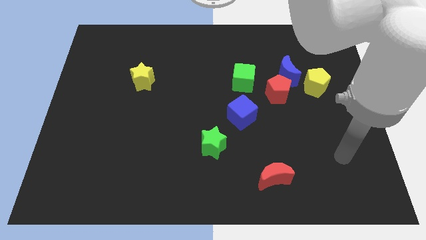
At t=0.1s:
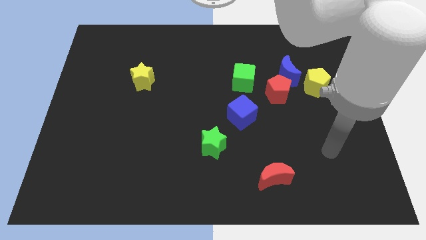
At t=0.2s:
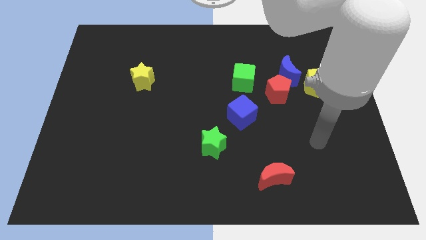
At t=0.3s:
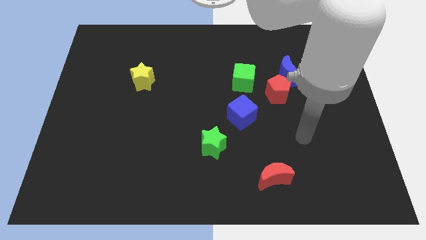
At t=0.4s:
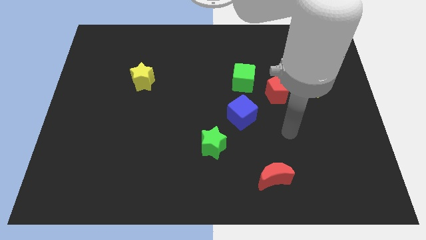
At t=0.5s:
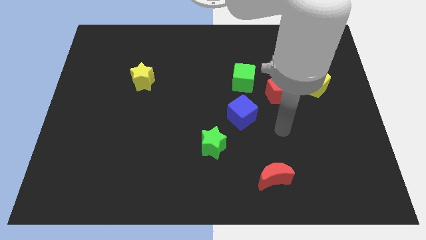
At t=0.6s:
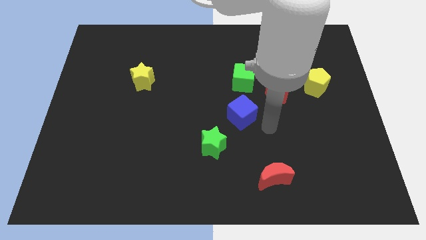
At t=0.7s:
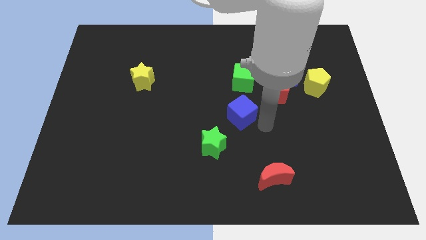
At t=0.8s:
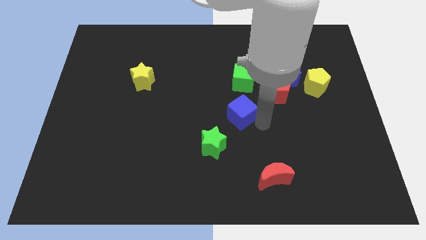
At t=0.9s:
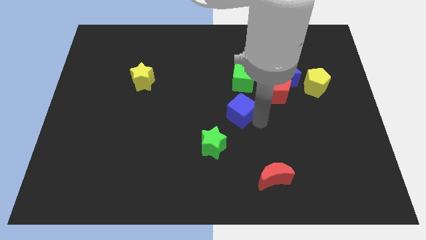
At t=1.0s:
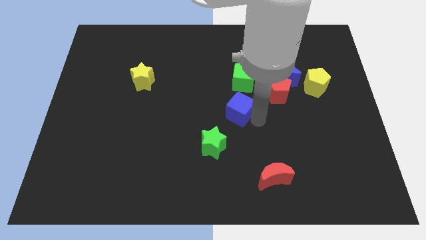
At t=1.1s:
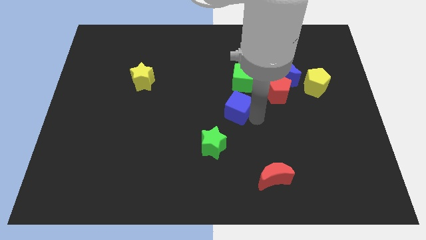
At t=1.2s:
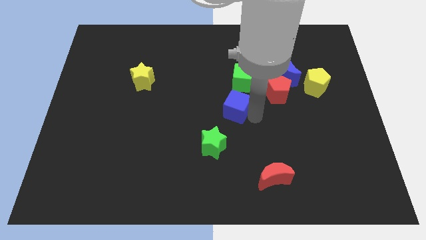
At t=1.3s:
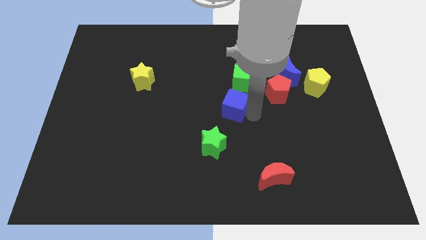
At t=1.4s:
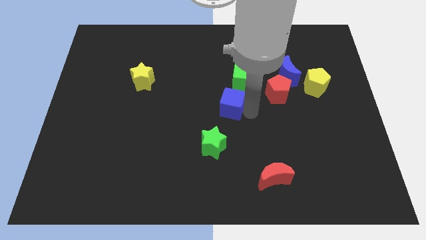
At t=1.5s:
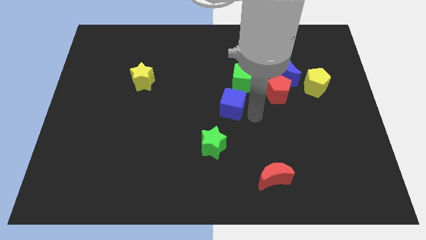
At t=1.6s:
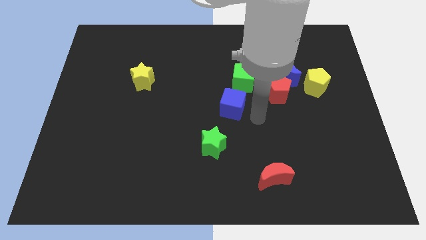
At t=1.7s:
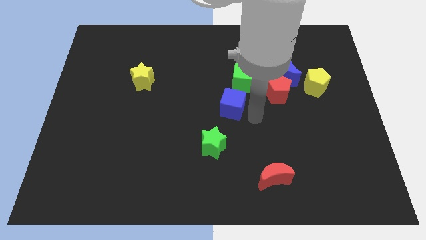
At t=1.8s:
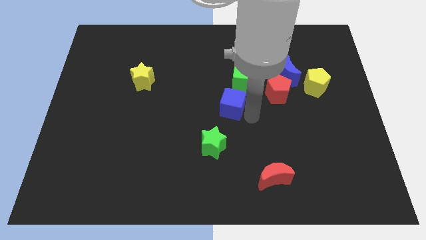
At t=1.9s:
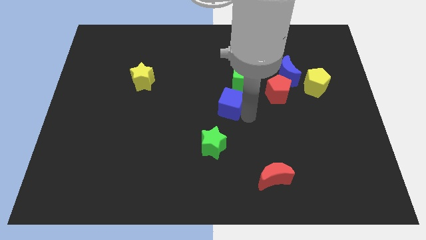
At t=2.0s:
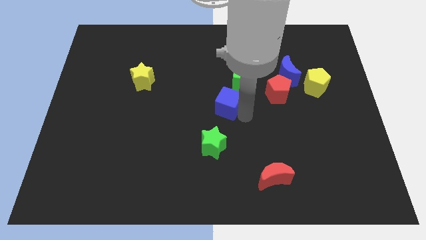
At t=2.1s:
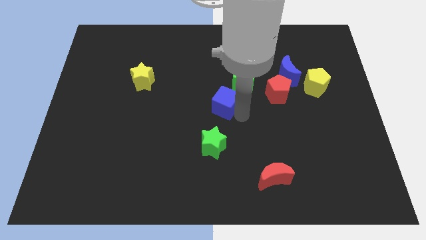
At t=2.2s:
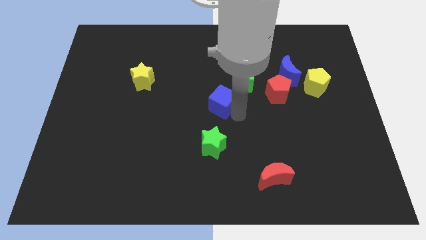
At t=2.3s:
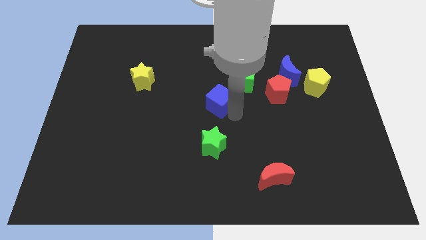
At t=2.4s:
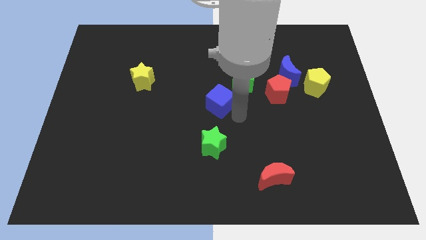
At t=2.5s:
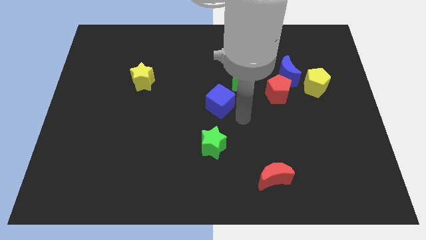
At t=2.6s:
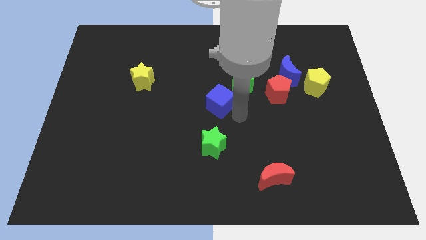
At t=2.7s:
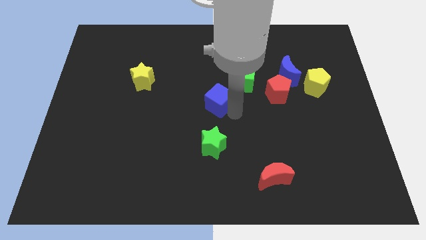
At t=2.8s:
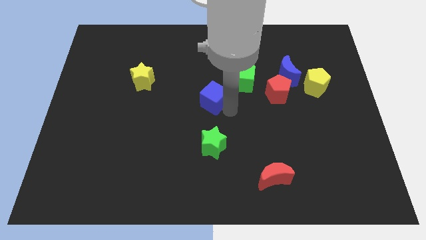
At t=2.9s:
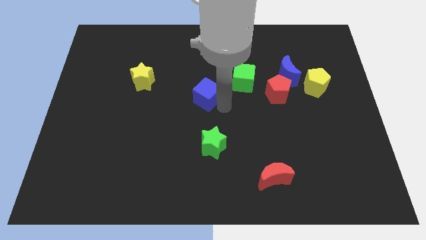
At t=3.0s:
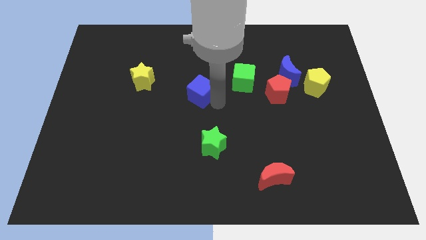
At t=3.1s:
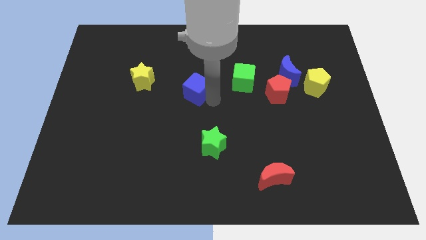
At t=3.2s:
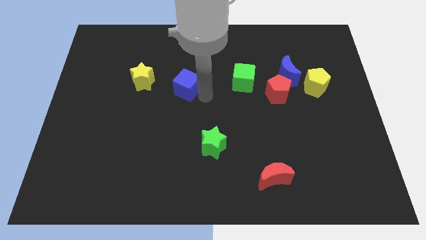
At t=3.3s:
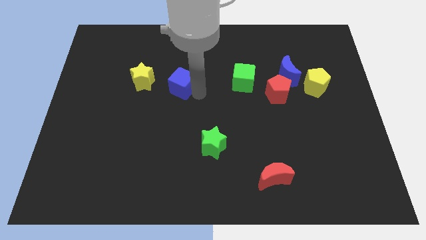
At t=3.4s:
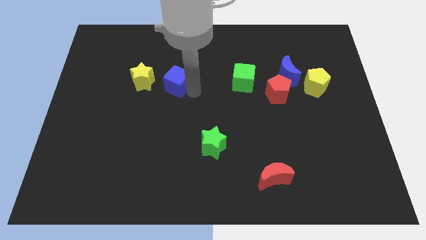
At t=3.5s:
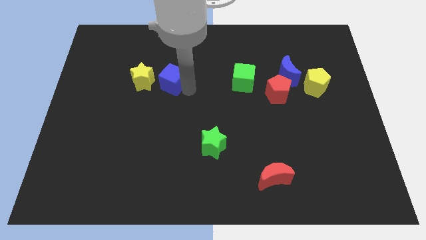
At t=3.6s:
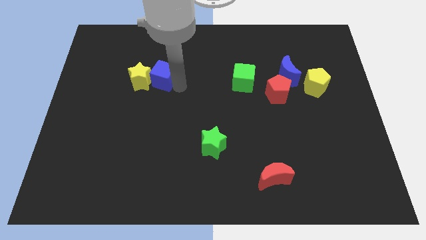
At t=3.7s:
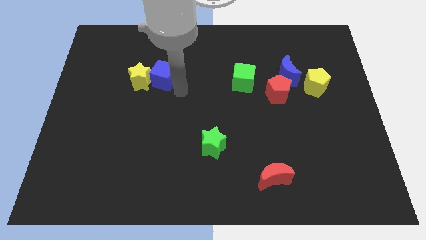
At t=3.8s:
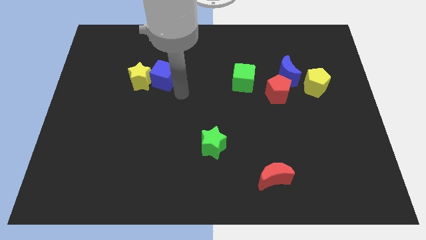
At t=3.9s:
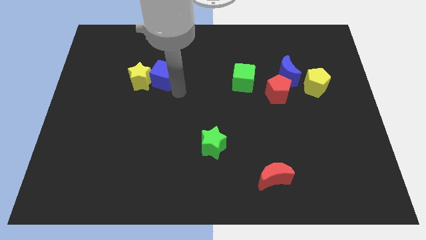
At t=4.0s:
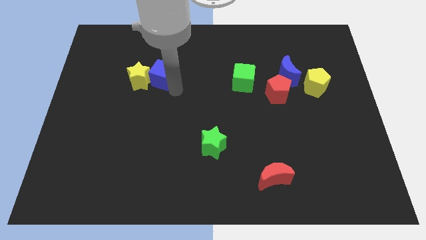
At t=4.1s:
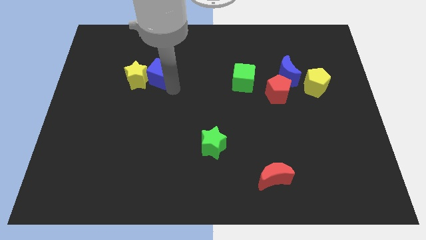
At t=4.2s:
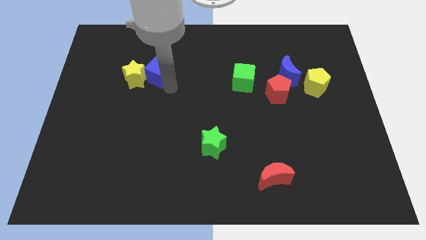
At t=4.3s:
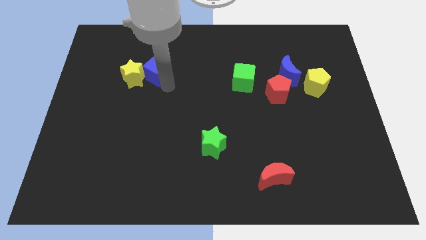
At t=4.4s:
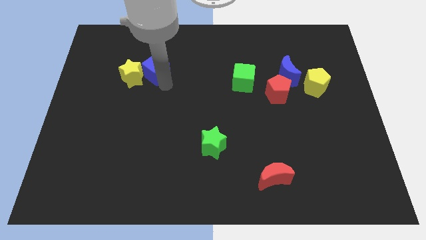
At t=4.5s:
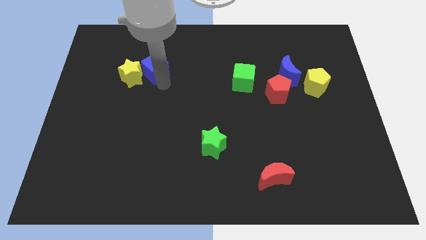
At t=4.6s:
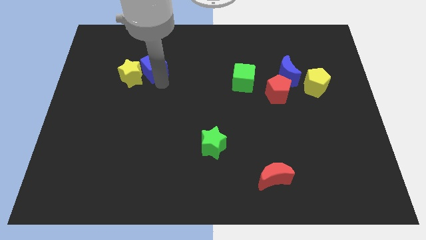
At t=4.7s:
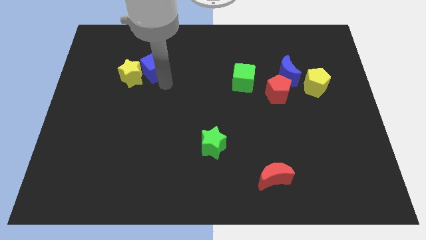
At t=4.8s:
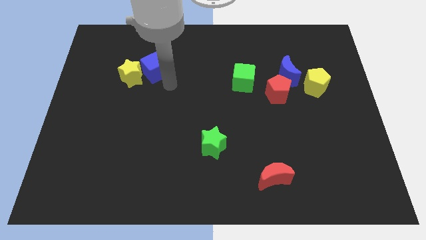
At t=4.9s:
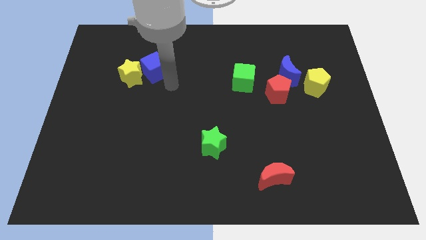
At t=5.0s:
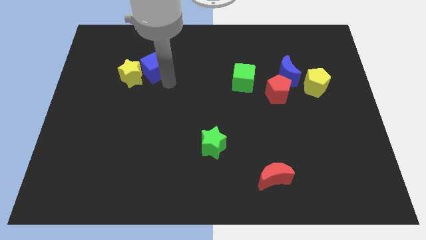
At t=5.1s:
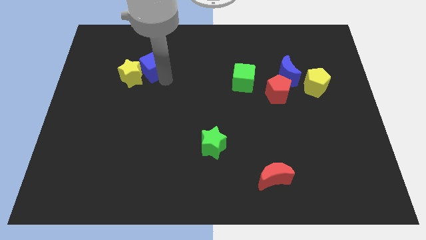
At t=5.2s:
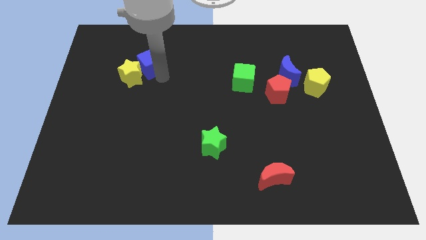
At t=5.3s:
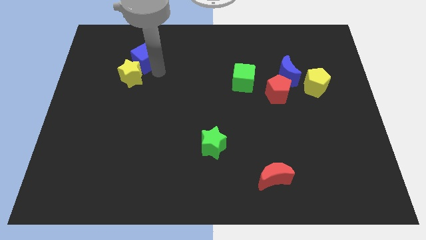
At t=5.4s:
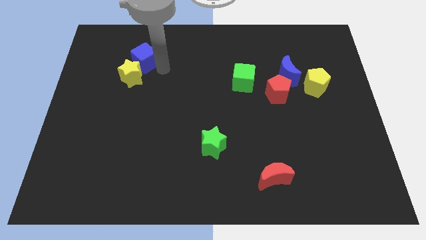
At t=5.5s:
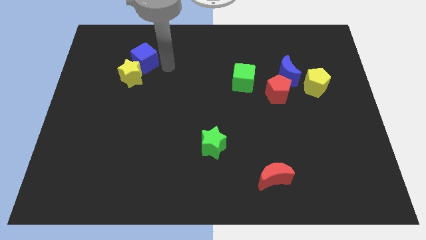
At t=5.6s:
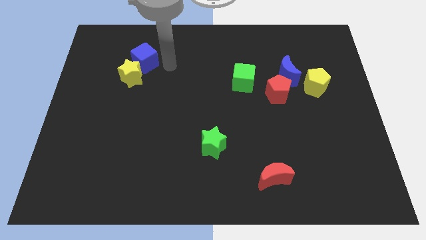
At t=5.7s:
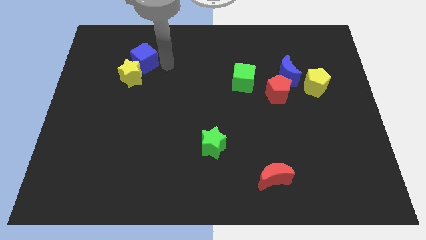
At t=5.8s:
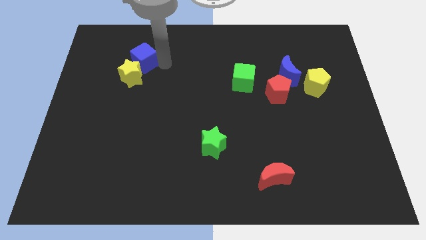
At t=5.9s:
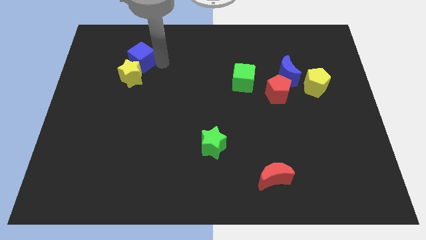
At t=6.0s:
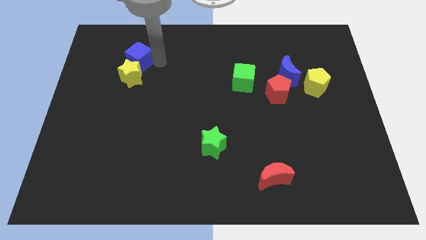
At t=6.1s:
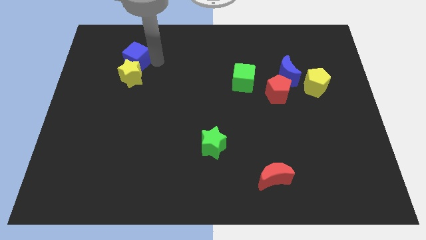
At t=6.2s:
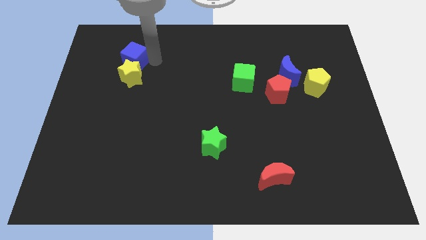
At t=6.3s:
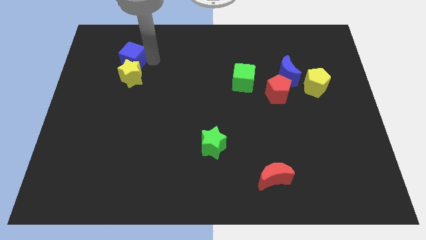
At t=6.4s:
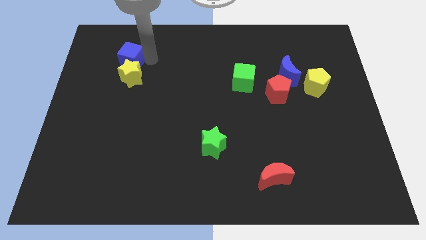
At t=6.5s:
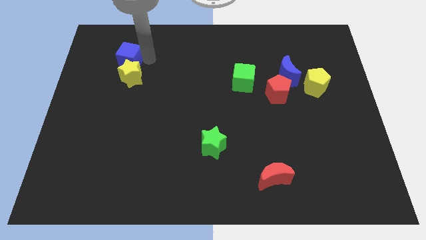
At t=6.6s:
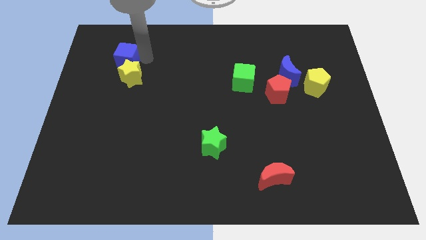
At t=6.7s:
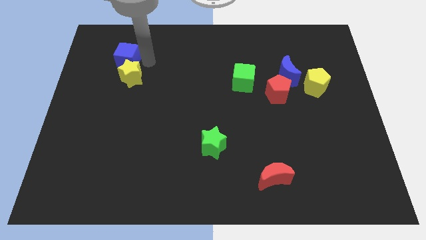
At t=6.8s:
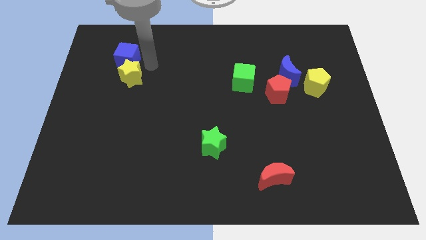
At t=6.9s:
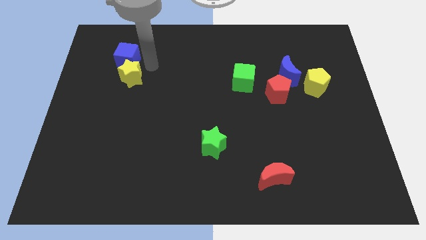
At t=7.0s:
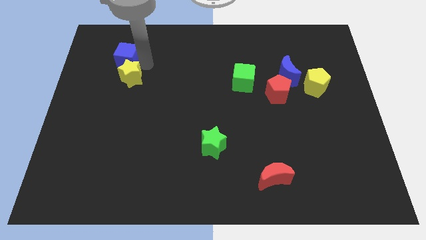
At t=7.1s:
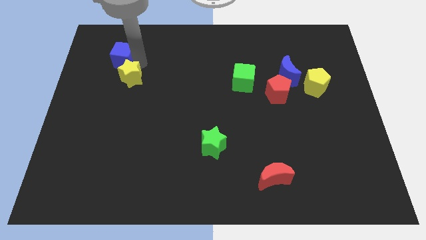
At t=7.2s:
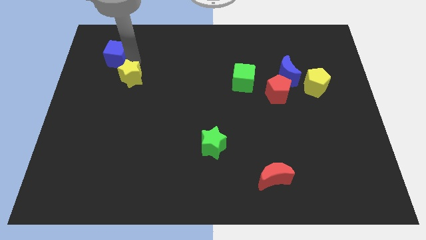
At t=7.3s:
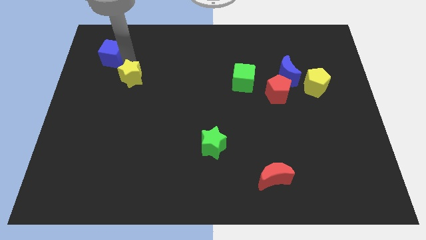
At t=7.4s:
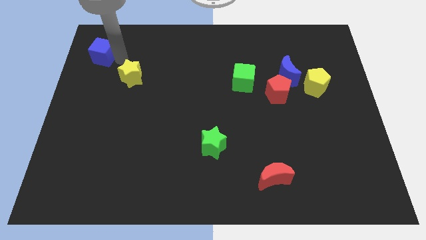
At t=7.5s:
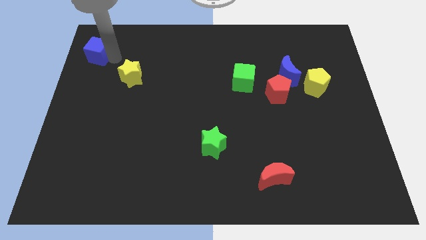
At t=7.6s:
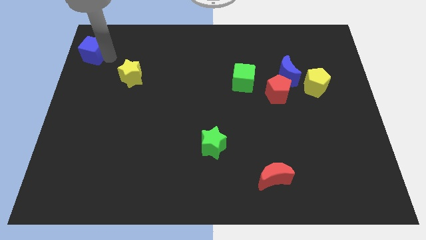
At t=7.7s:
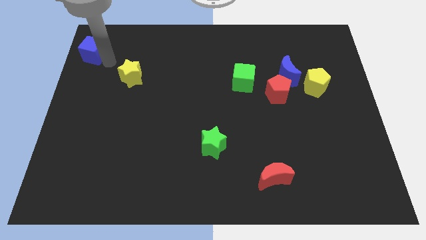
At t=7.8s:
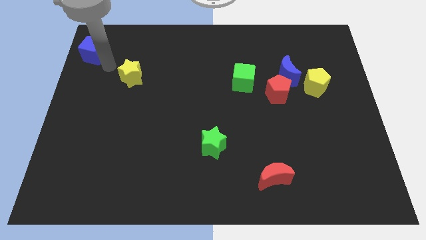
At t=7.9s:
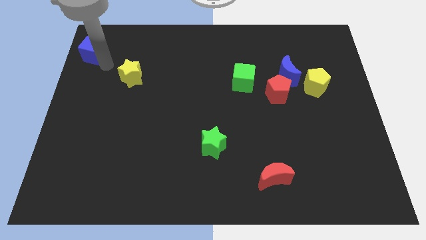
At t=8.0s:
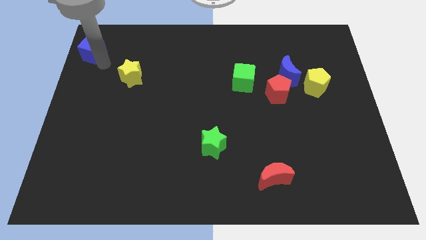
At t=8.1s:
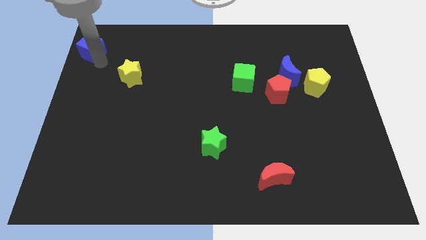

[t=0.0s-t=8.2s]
slide the blue cube to the top left corner
